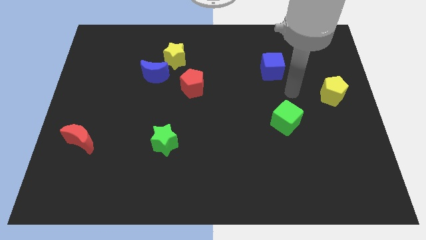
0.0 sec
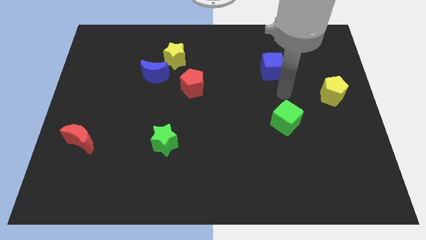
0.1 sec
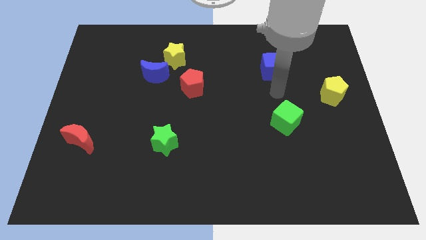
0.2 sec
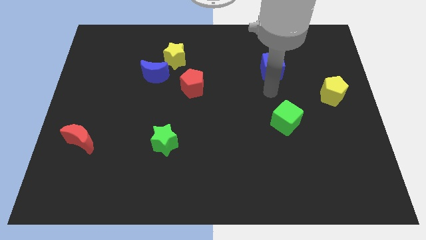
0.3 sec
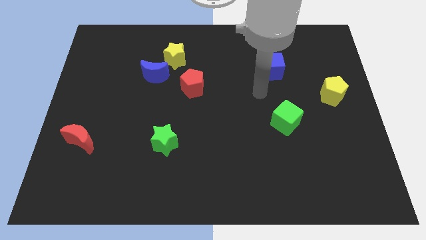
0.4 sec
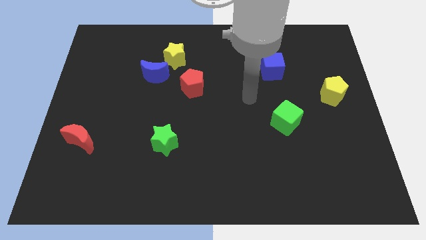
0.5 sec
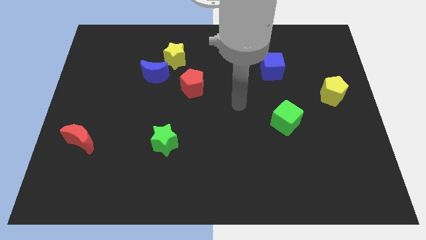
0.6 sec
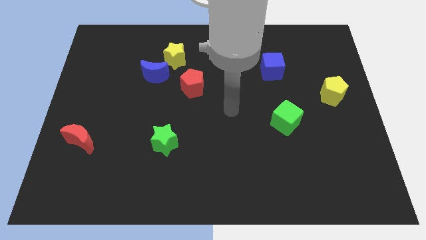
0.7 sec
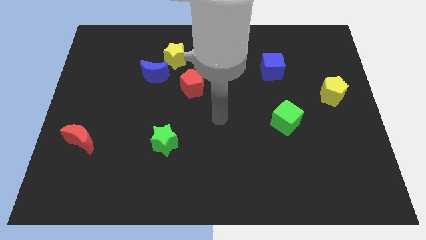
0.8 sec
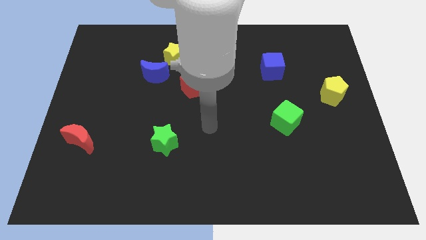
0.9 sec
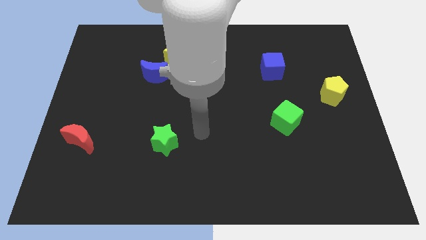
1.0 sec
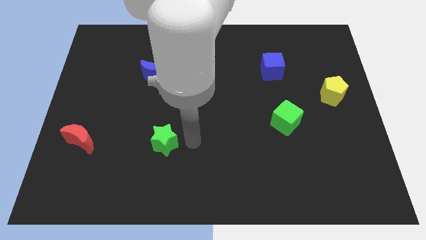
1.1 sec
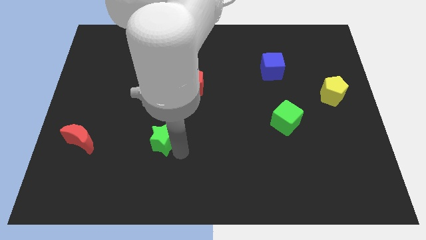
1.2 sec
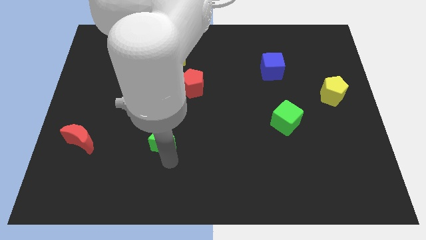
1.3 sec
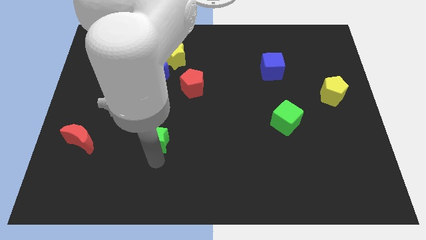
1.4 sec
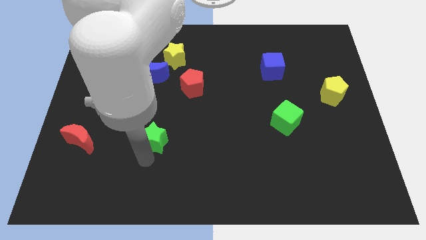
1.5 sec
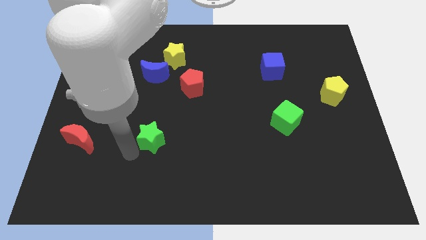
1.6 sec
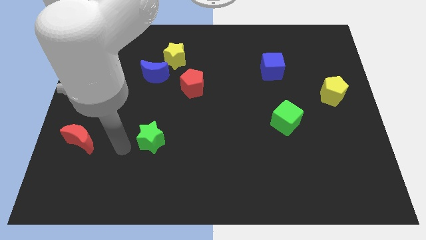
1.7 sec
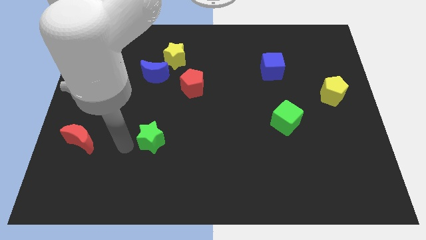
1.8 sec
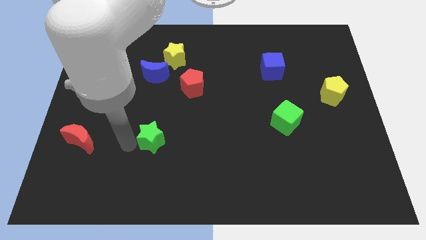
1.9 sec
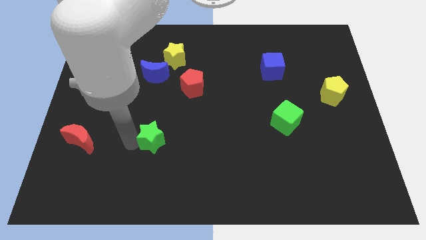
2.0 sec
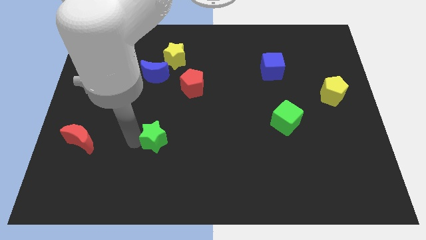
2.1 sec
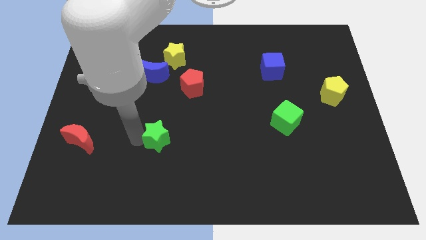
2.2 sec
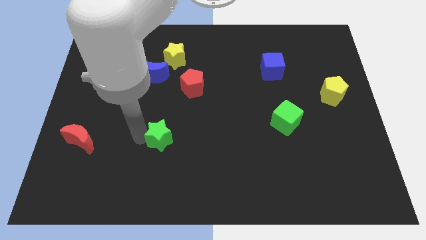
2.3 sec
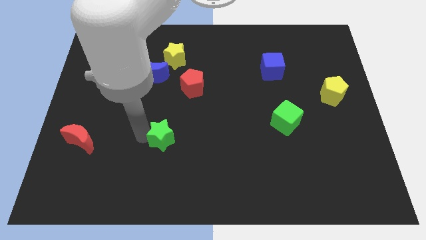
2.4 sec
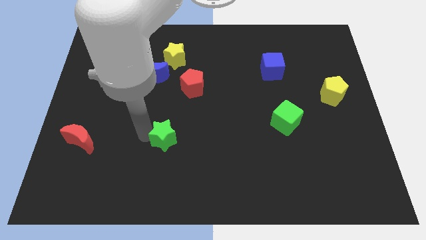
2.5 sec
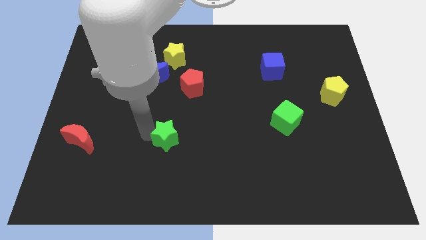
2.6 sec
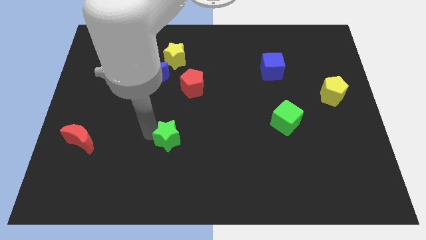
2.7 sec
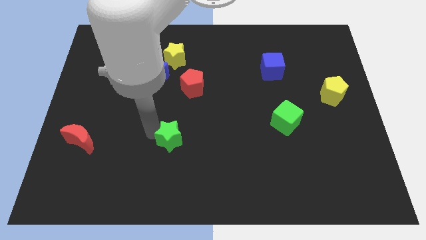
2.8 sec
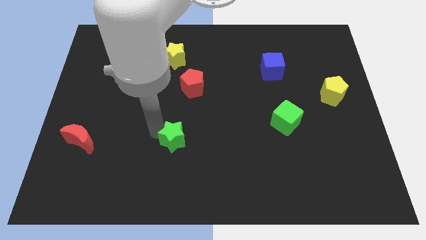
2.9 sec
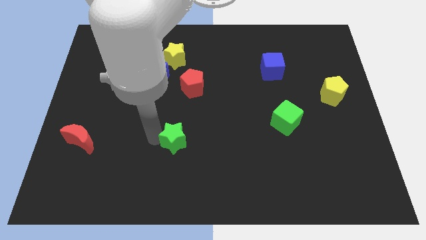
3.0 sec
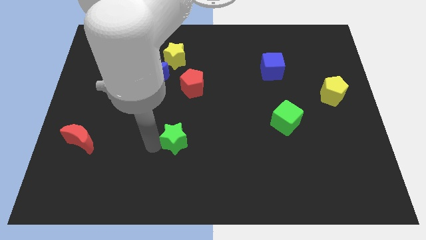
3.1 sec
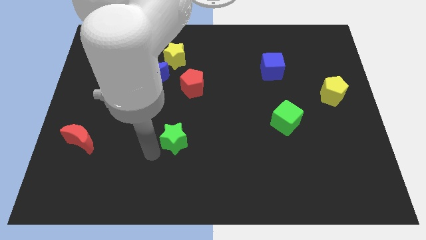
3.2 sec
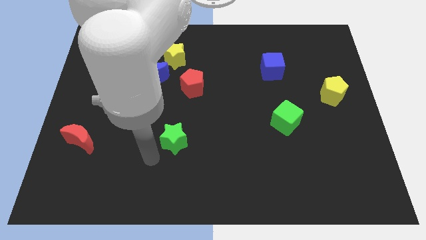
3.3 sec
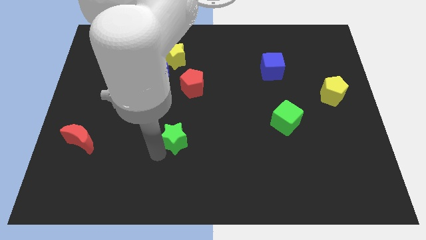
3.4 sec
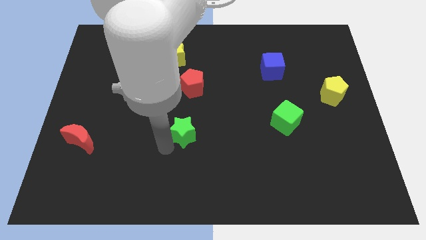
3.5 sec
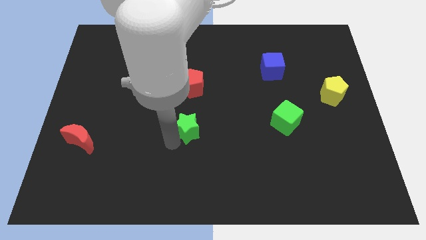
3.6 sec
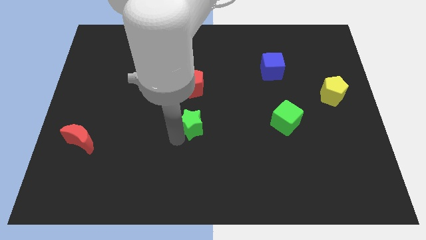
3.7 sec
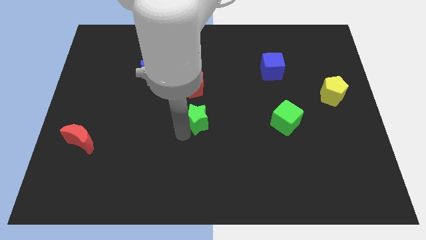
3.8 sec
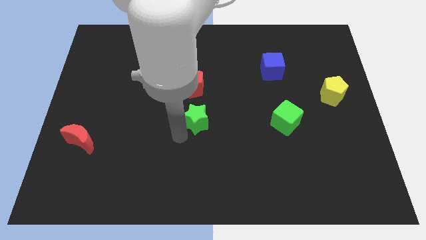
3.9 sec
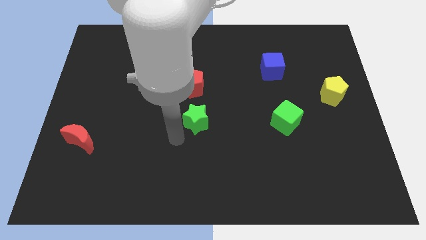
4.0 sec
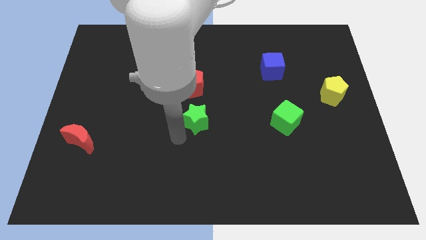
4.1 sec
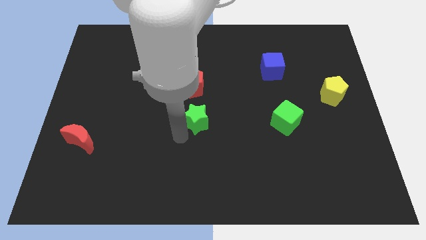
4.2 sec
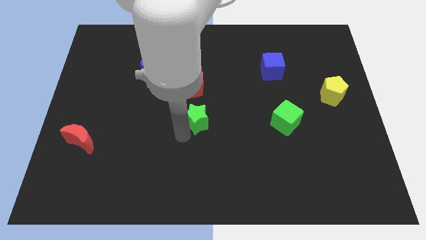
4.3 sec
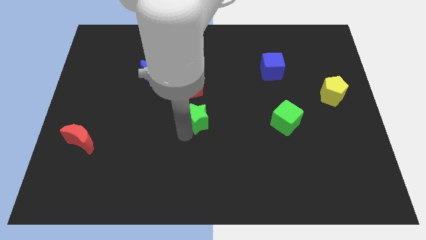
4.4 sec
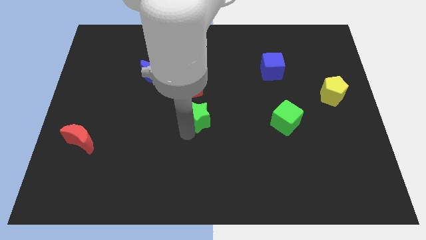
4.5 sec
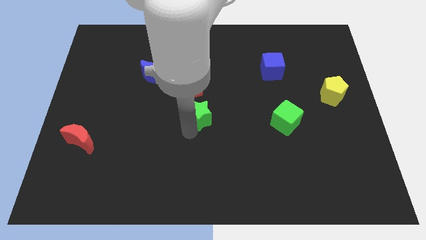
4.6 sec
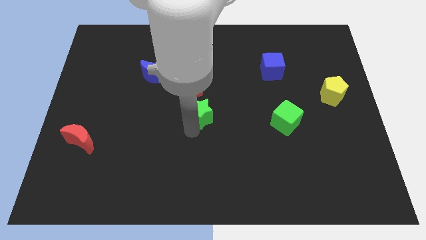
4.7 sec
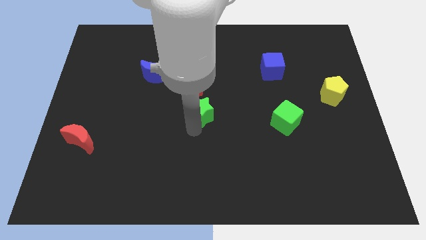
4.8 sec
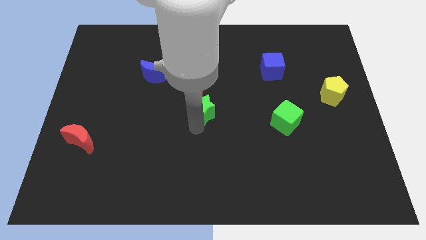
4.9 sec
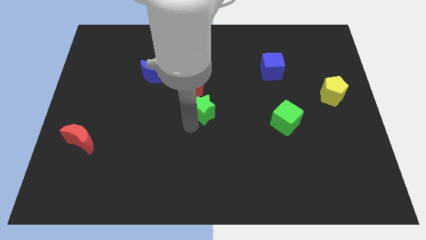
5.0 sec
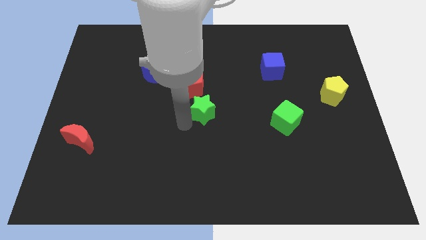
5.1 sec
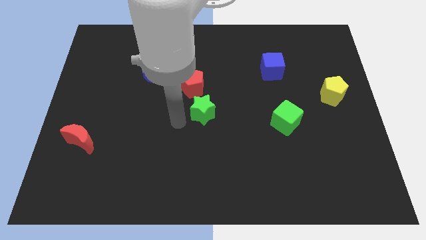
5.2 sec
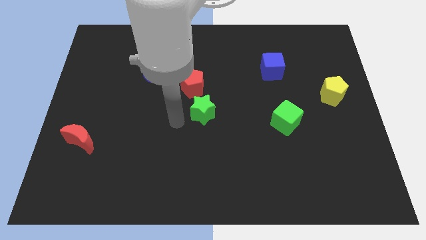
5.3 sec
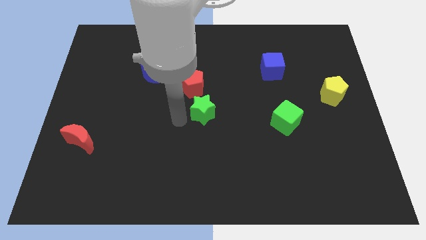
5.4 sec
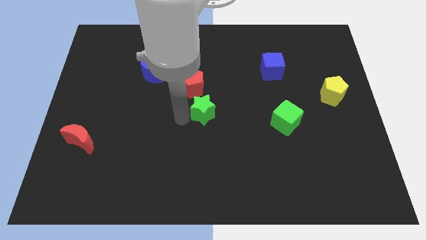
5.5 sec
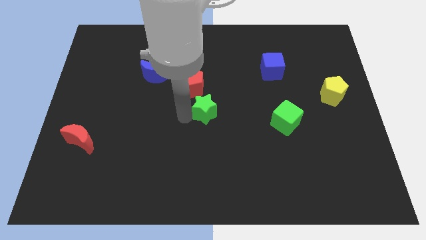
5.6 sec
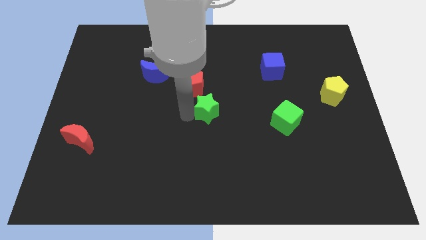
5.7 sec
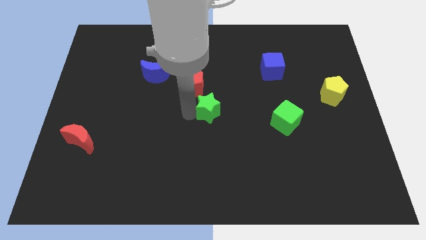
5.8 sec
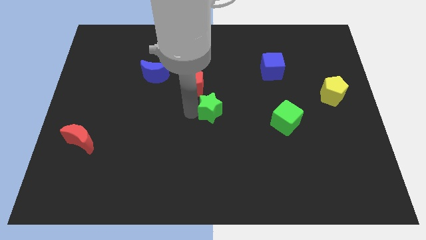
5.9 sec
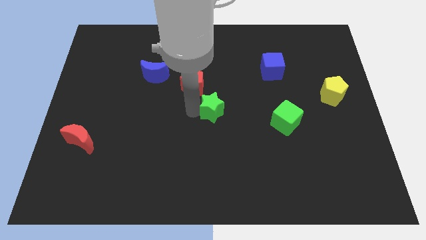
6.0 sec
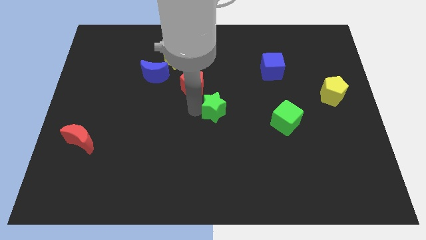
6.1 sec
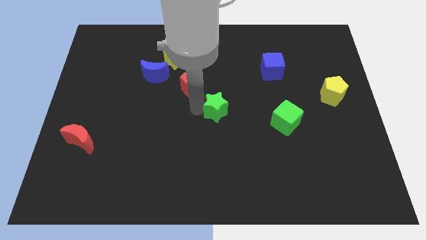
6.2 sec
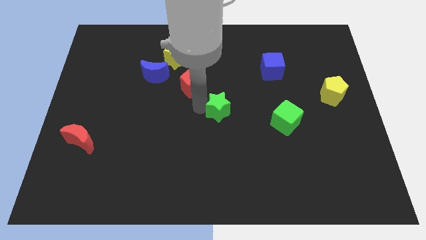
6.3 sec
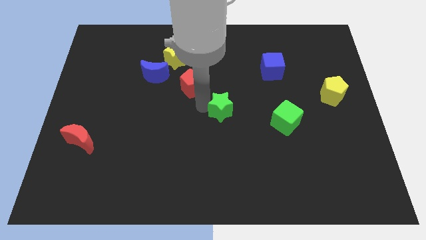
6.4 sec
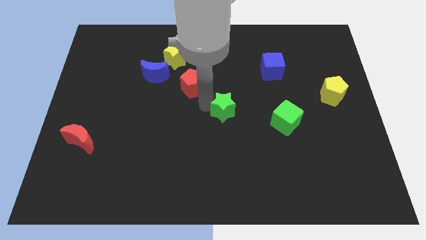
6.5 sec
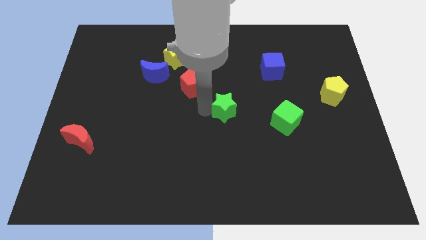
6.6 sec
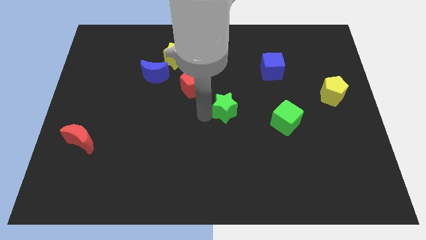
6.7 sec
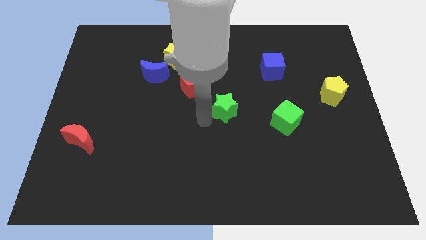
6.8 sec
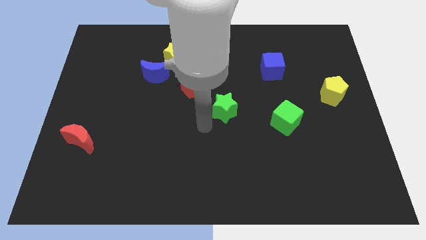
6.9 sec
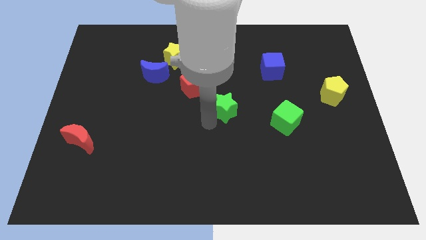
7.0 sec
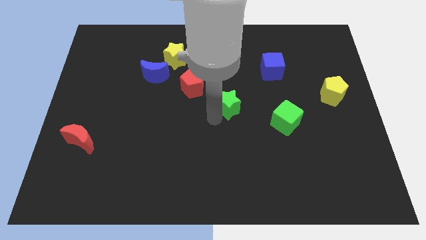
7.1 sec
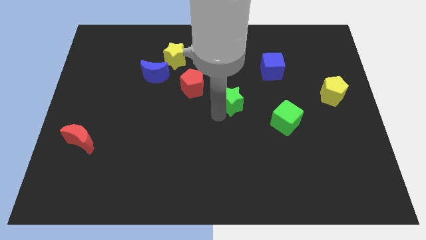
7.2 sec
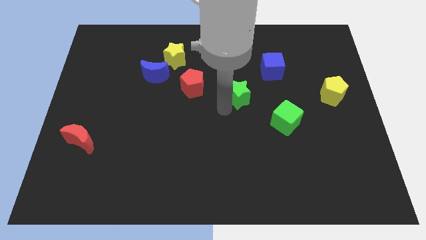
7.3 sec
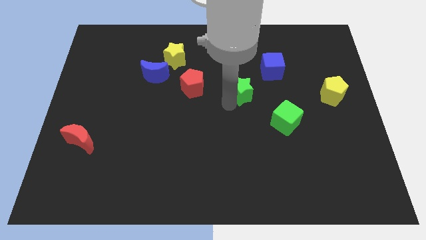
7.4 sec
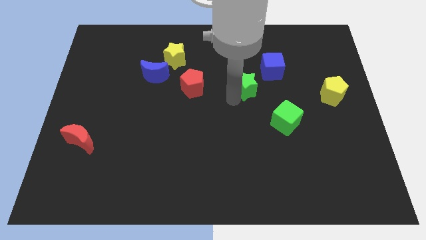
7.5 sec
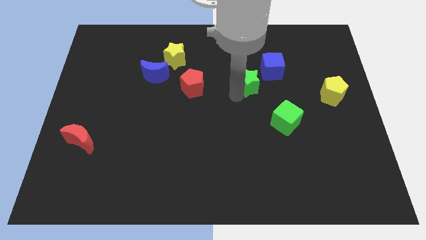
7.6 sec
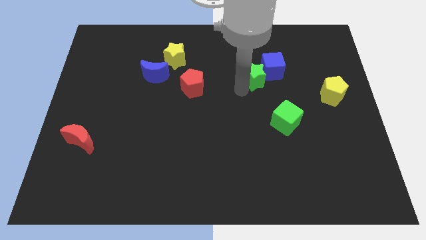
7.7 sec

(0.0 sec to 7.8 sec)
put the green star towards the blue cube
